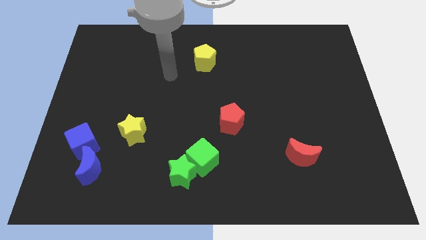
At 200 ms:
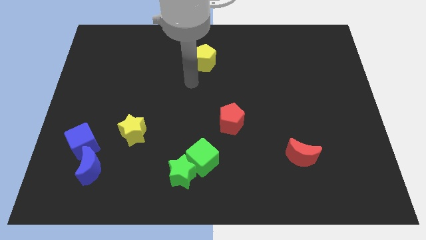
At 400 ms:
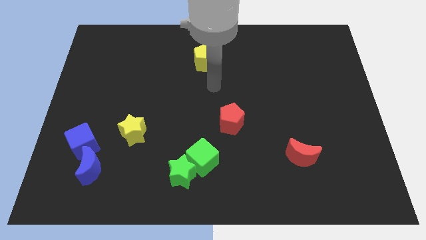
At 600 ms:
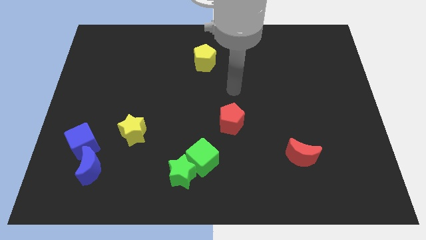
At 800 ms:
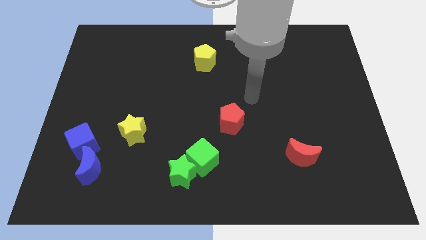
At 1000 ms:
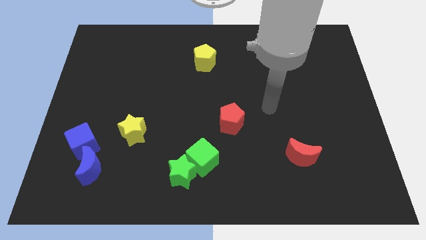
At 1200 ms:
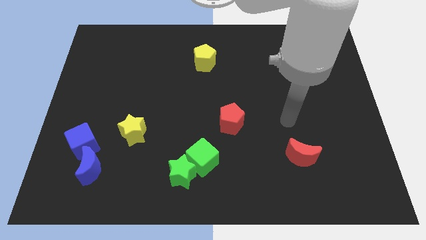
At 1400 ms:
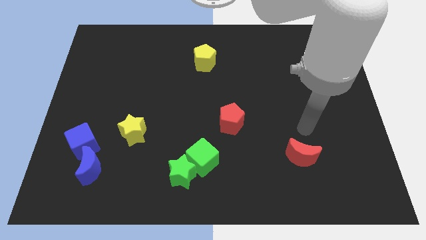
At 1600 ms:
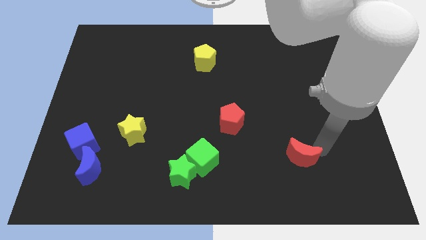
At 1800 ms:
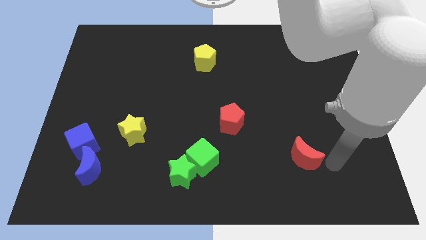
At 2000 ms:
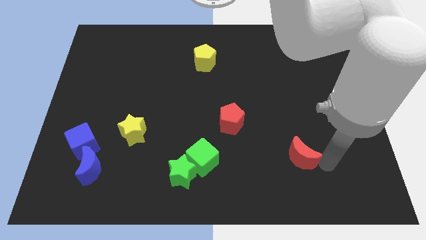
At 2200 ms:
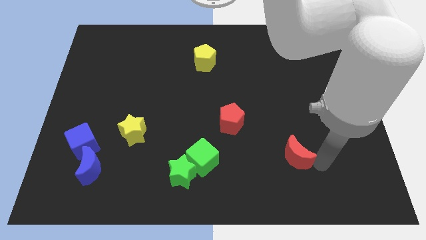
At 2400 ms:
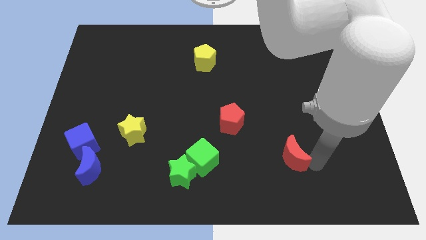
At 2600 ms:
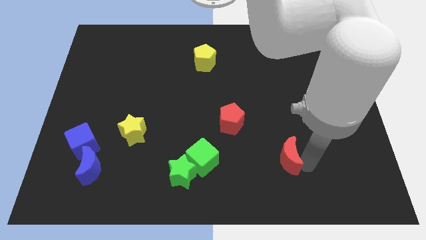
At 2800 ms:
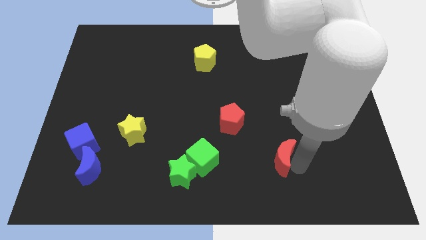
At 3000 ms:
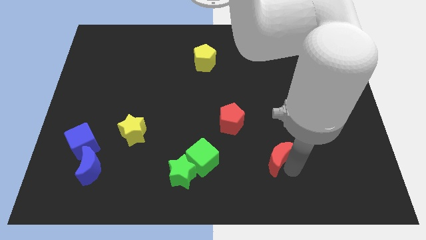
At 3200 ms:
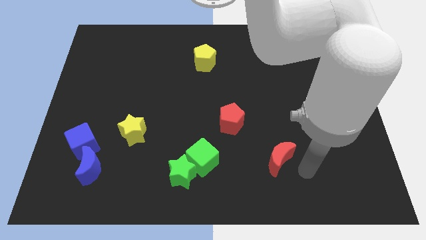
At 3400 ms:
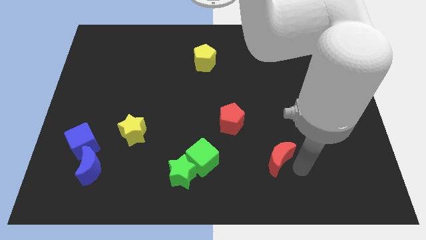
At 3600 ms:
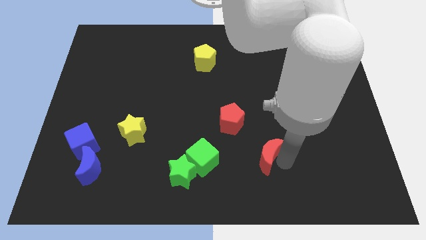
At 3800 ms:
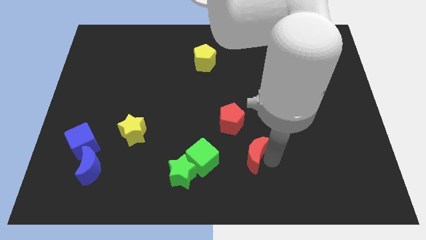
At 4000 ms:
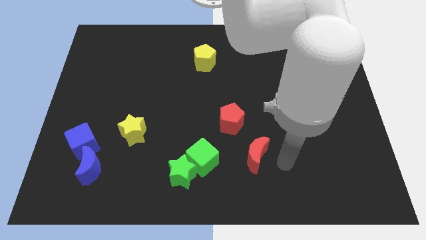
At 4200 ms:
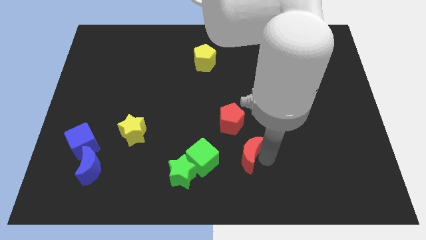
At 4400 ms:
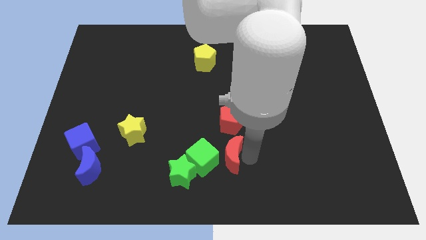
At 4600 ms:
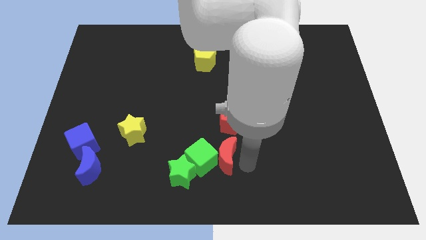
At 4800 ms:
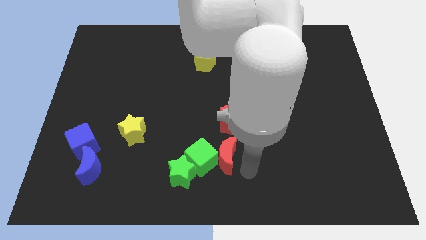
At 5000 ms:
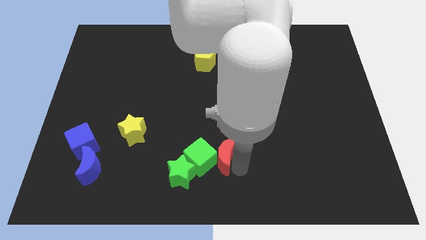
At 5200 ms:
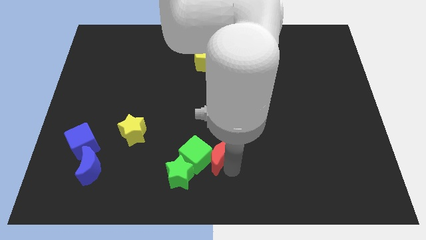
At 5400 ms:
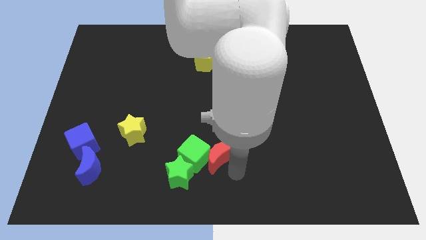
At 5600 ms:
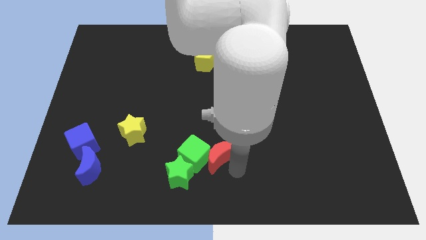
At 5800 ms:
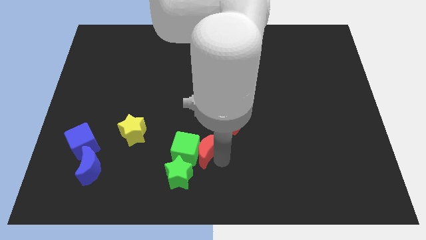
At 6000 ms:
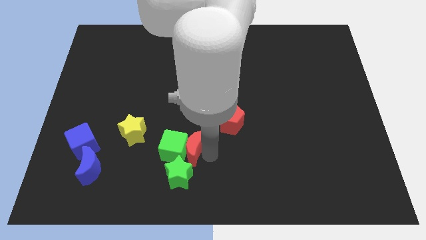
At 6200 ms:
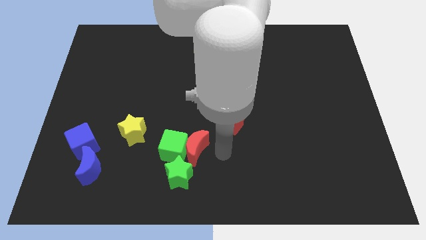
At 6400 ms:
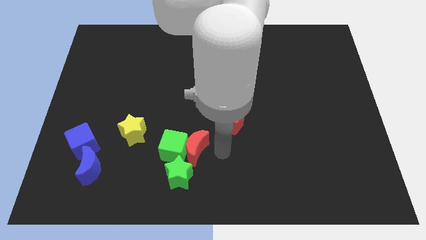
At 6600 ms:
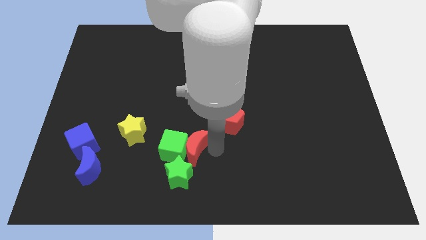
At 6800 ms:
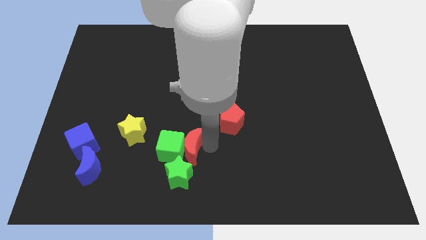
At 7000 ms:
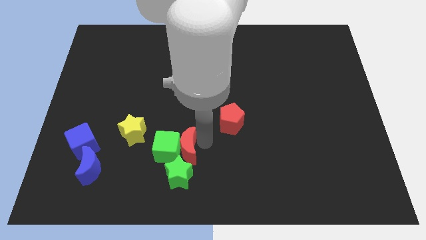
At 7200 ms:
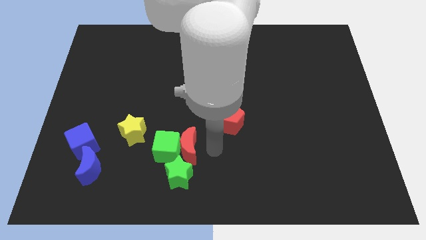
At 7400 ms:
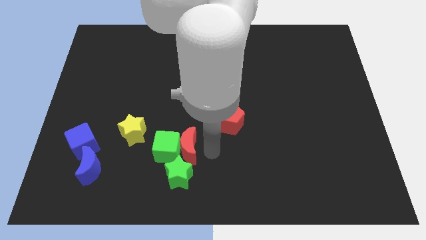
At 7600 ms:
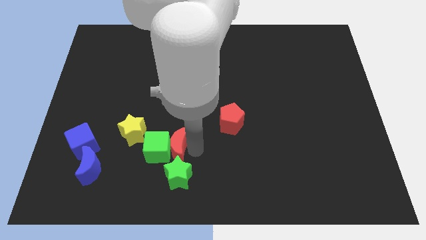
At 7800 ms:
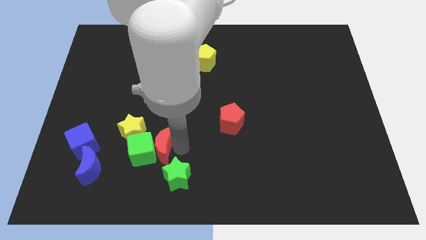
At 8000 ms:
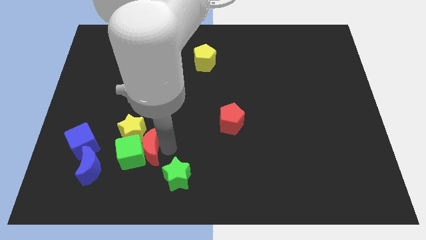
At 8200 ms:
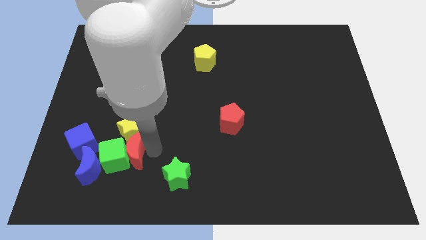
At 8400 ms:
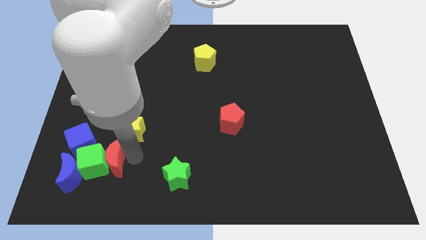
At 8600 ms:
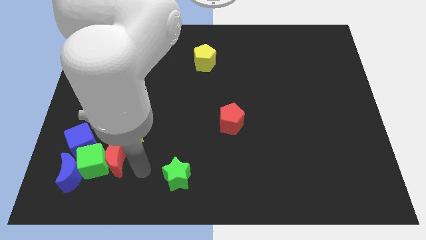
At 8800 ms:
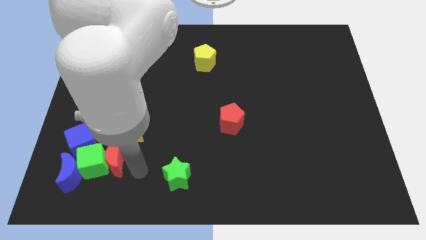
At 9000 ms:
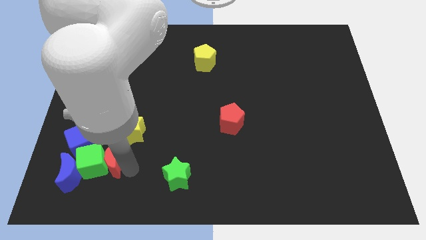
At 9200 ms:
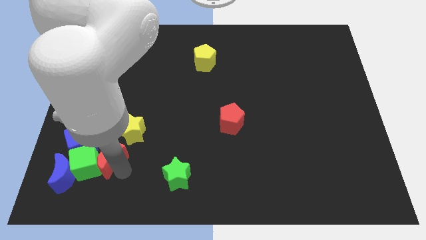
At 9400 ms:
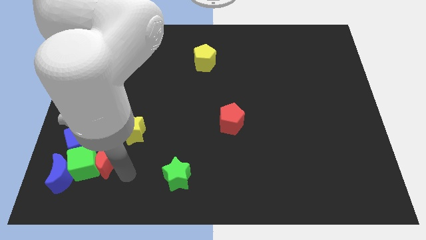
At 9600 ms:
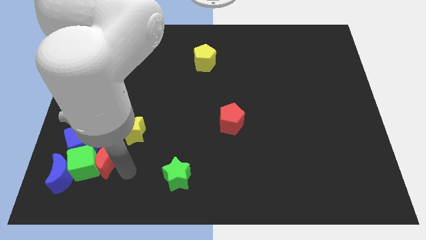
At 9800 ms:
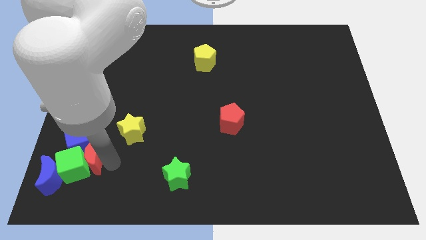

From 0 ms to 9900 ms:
slide the red moon close to the blue cube

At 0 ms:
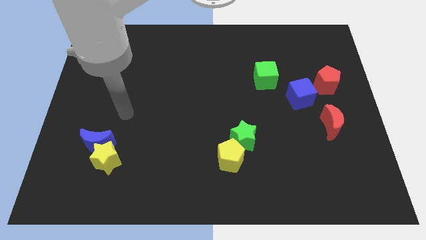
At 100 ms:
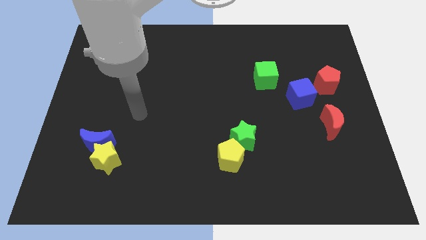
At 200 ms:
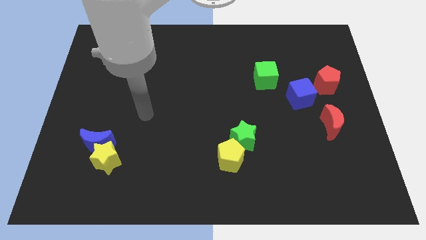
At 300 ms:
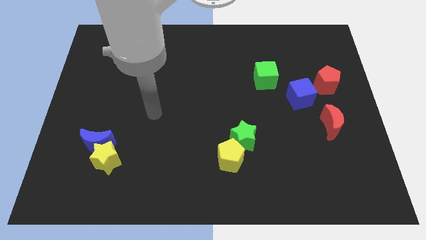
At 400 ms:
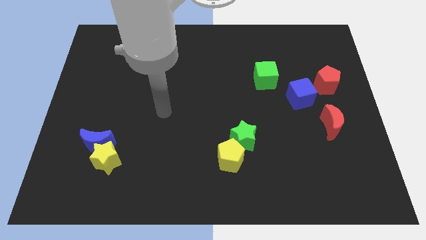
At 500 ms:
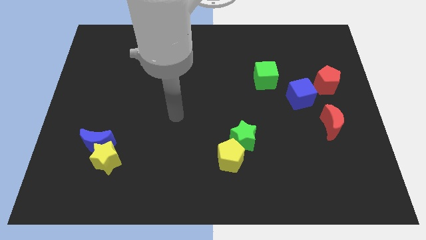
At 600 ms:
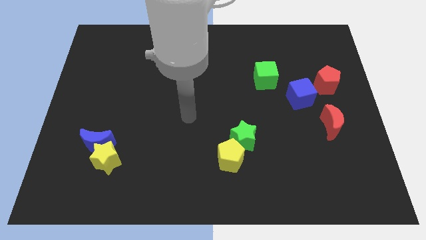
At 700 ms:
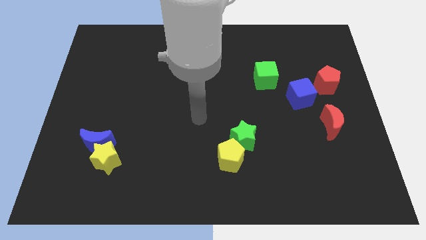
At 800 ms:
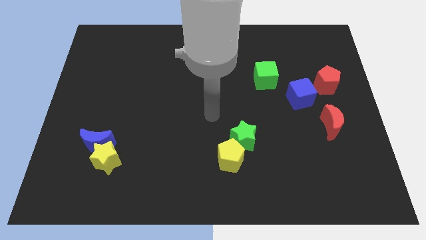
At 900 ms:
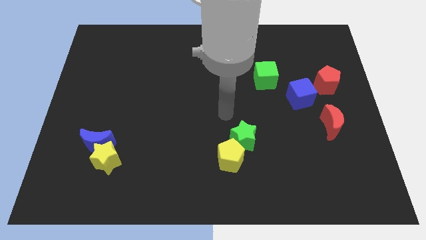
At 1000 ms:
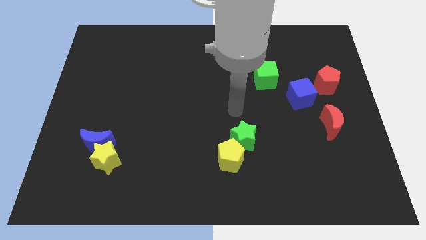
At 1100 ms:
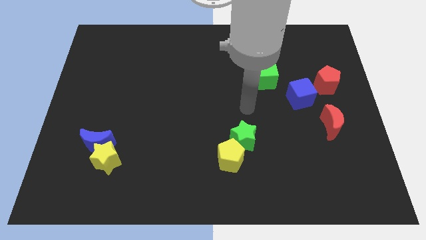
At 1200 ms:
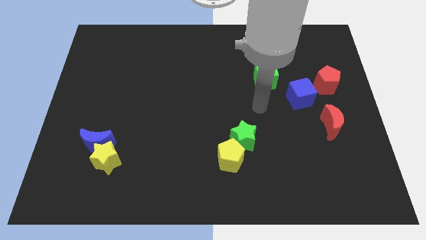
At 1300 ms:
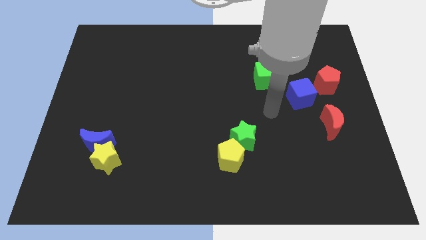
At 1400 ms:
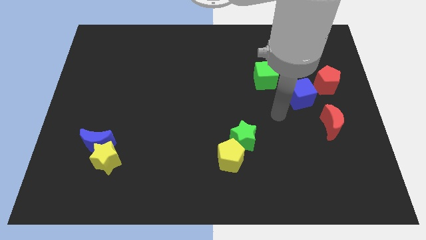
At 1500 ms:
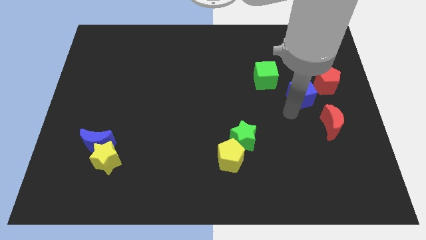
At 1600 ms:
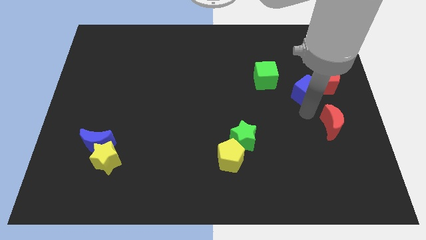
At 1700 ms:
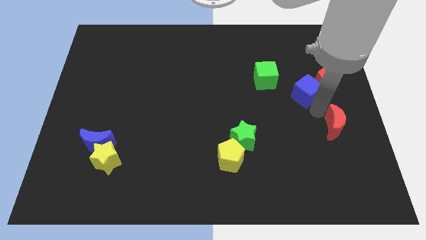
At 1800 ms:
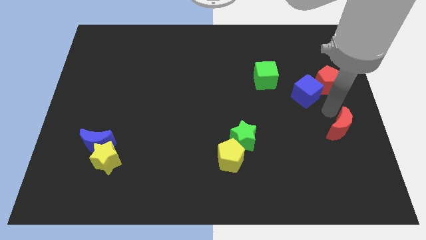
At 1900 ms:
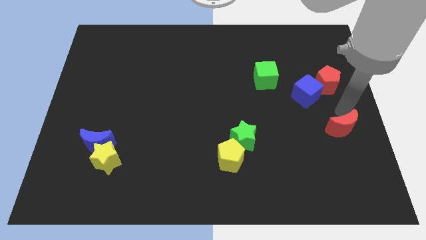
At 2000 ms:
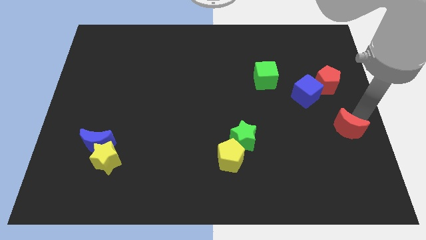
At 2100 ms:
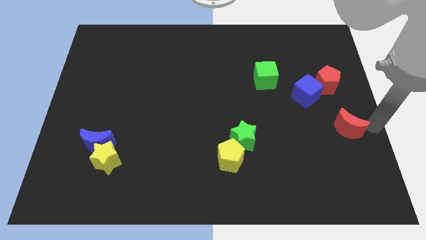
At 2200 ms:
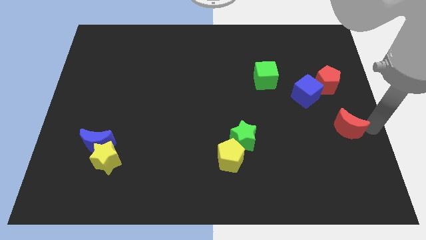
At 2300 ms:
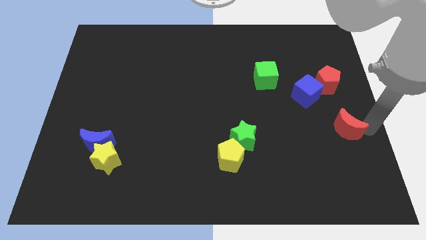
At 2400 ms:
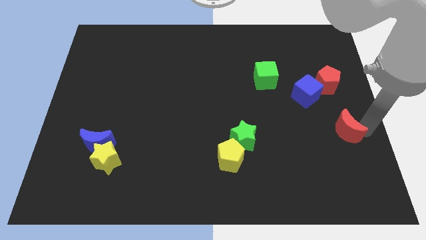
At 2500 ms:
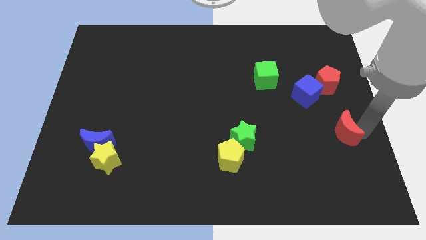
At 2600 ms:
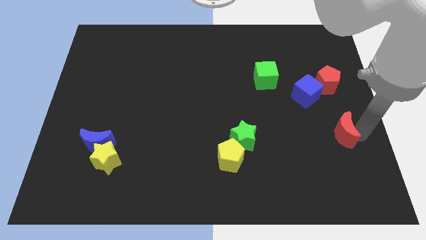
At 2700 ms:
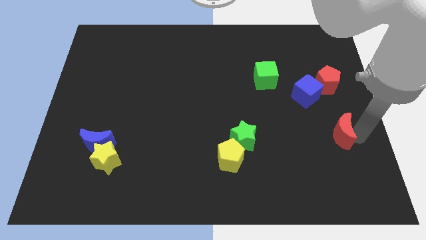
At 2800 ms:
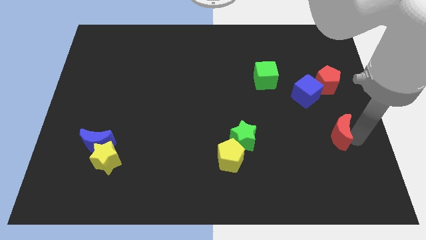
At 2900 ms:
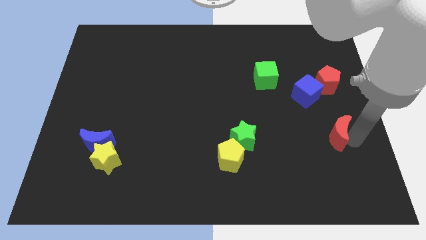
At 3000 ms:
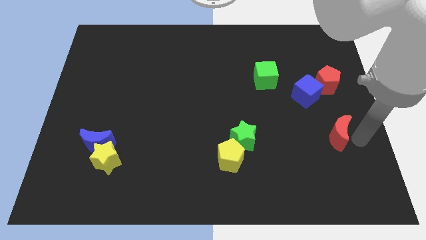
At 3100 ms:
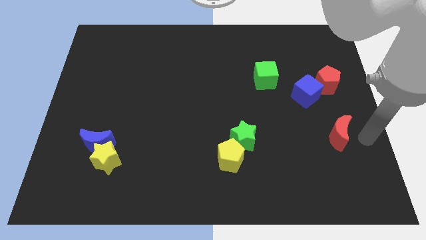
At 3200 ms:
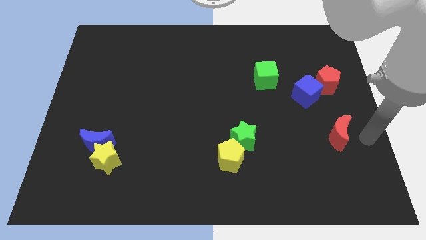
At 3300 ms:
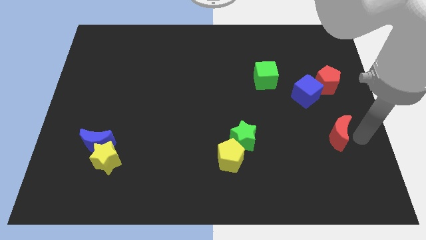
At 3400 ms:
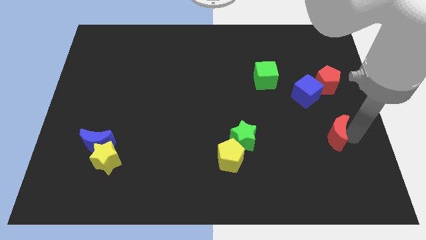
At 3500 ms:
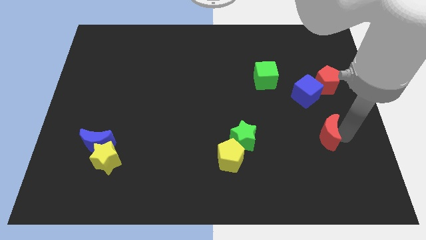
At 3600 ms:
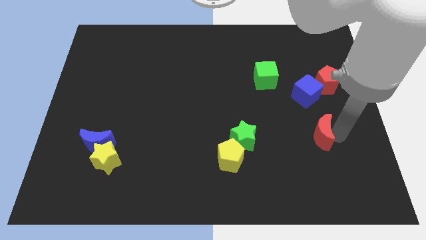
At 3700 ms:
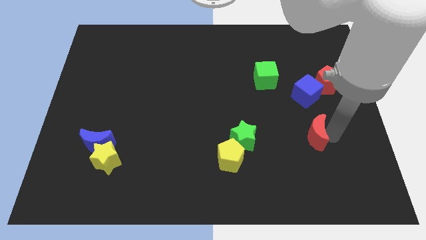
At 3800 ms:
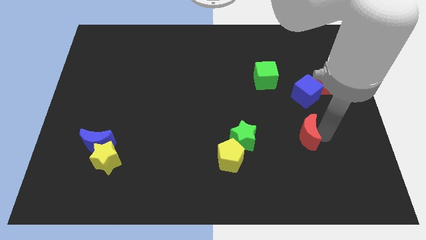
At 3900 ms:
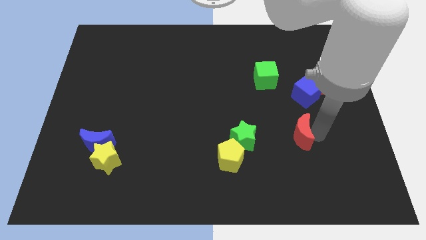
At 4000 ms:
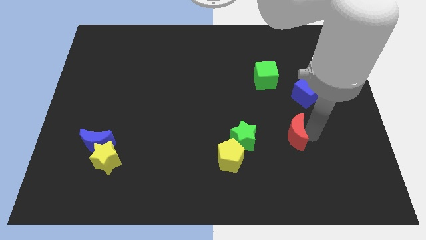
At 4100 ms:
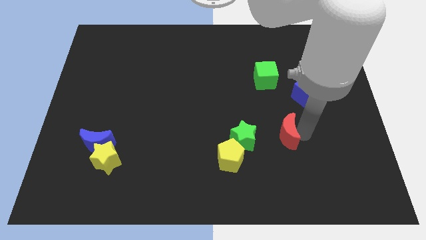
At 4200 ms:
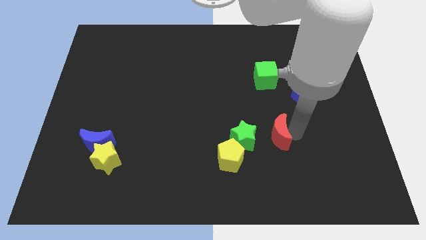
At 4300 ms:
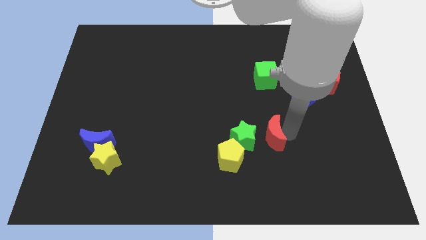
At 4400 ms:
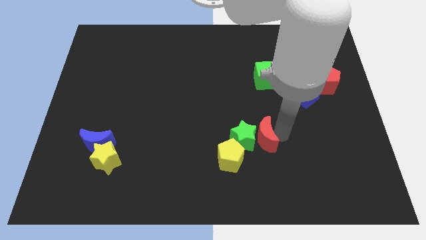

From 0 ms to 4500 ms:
push the red moon towards the green star
